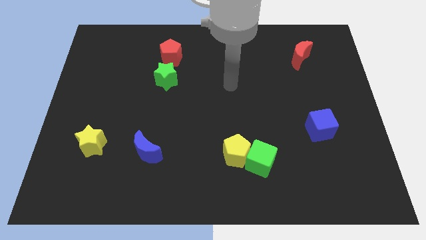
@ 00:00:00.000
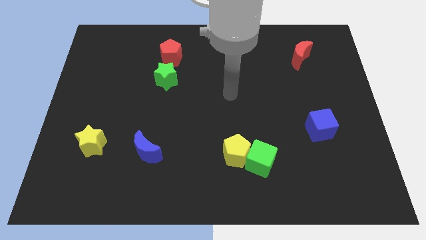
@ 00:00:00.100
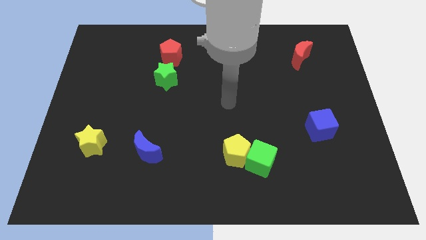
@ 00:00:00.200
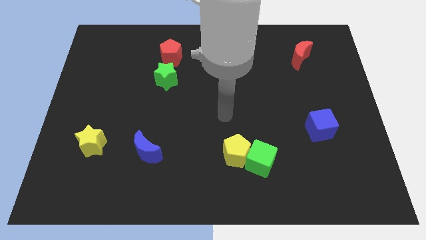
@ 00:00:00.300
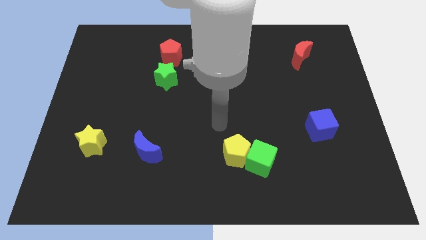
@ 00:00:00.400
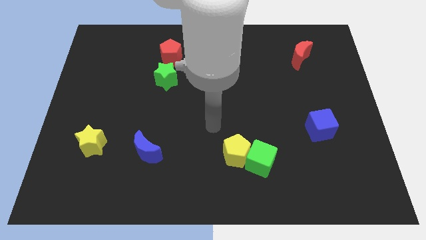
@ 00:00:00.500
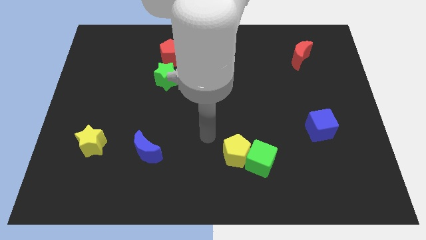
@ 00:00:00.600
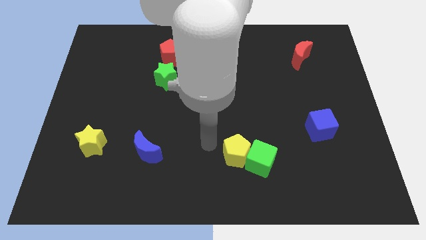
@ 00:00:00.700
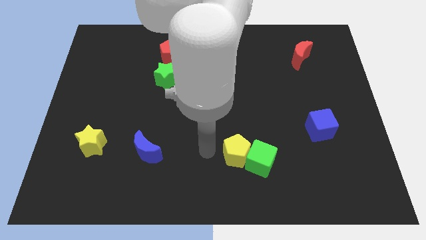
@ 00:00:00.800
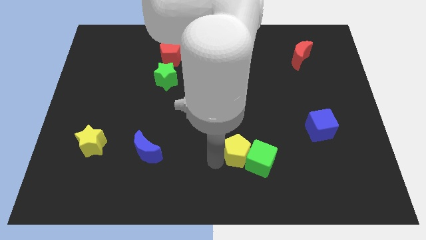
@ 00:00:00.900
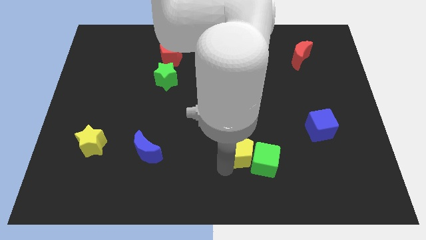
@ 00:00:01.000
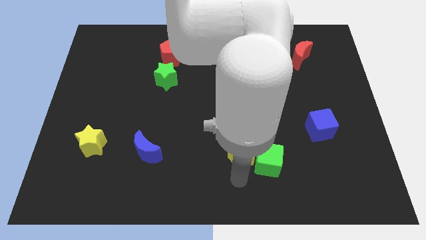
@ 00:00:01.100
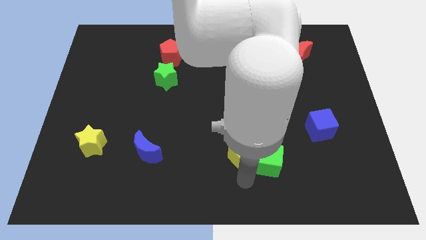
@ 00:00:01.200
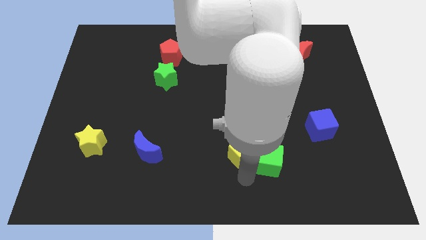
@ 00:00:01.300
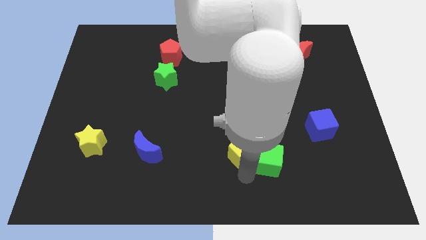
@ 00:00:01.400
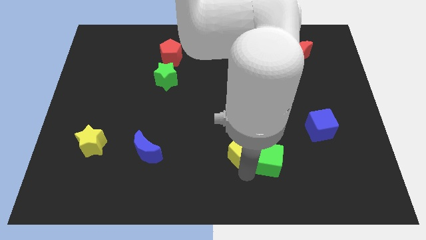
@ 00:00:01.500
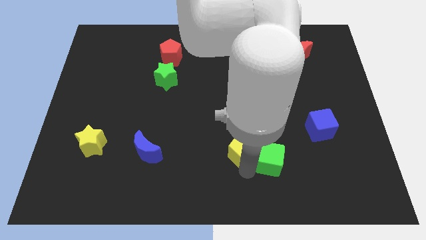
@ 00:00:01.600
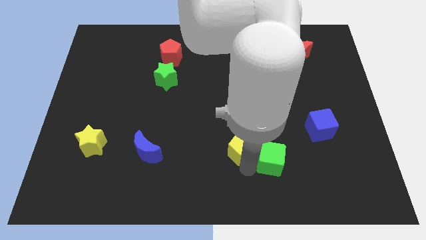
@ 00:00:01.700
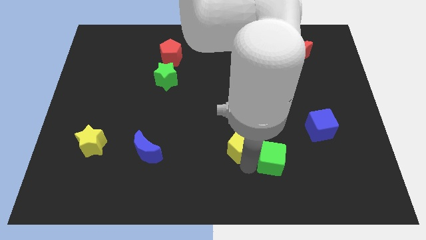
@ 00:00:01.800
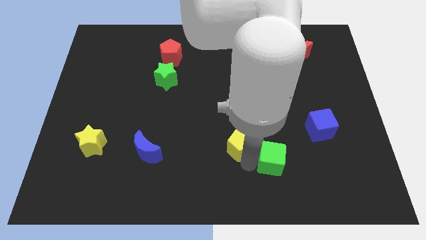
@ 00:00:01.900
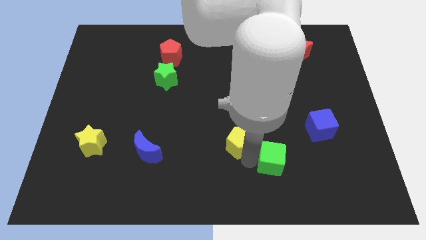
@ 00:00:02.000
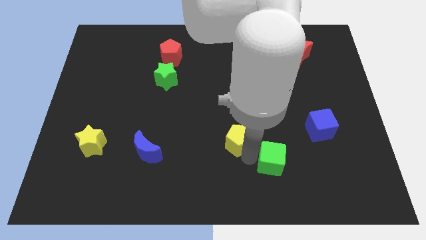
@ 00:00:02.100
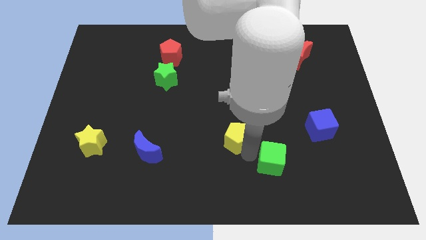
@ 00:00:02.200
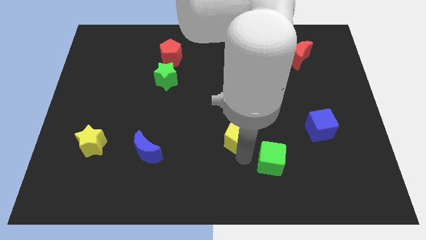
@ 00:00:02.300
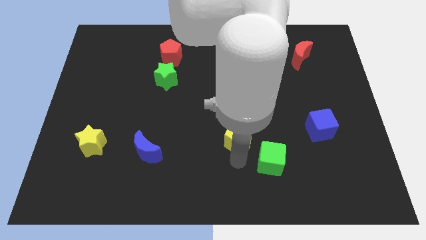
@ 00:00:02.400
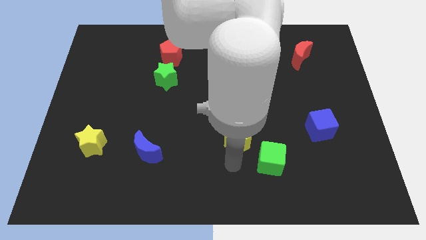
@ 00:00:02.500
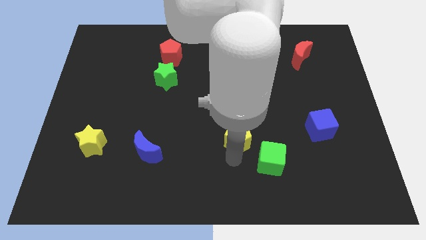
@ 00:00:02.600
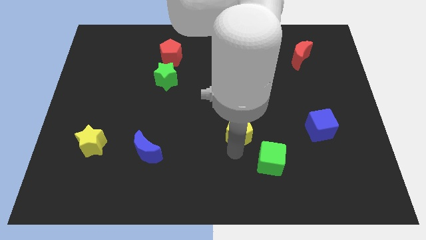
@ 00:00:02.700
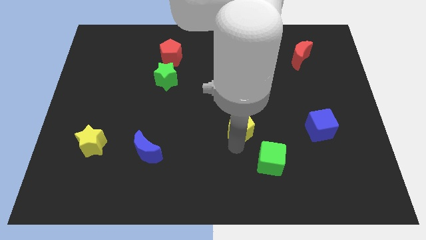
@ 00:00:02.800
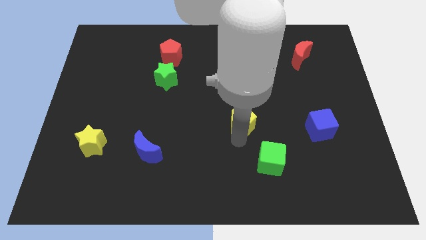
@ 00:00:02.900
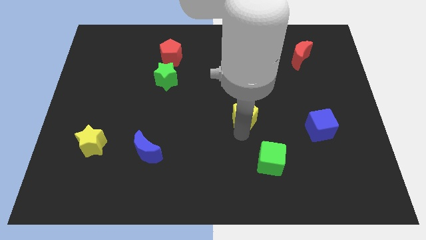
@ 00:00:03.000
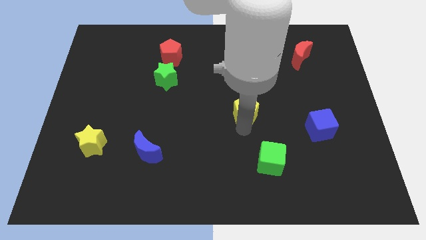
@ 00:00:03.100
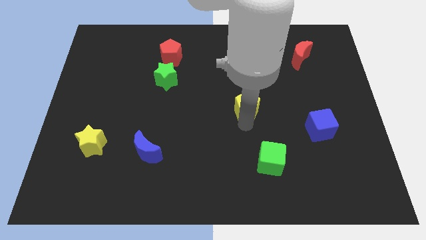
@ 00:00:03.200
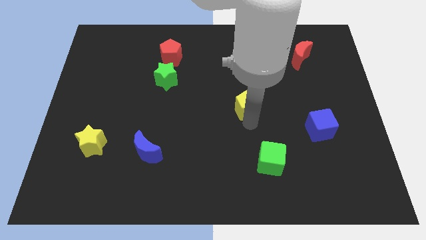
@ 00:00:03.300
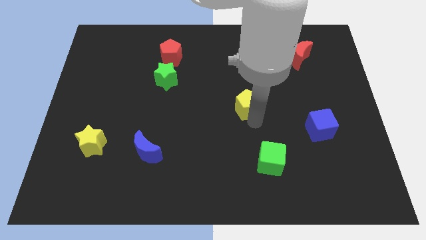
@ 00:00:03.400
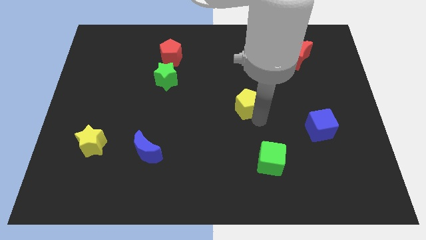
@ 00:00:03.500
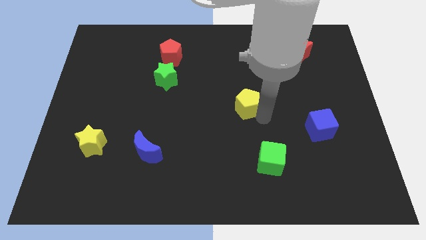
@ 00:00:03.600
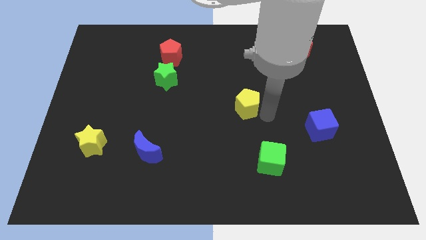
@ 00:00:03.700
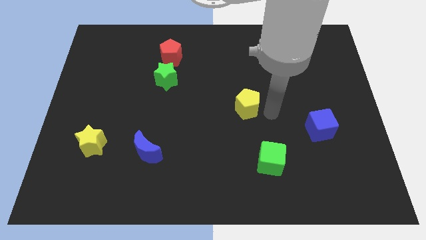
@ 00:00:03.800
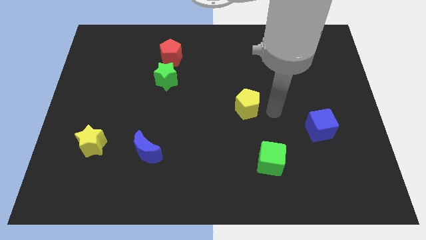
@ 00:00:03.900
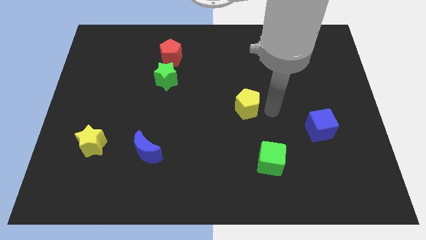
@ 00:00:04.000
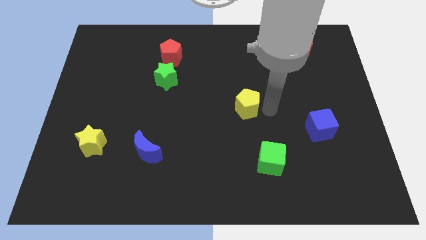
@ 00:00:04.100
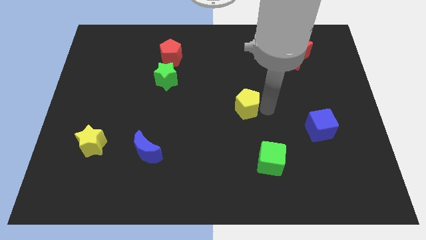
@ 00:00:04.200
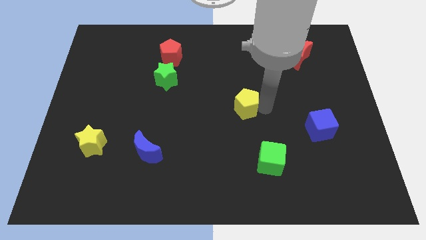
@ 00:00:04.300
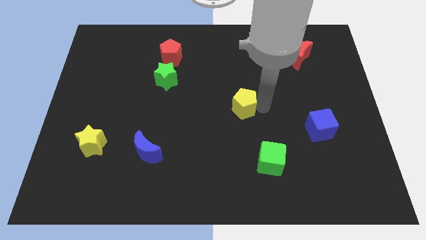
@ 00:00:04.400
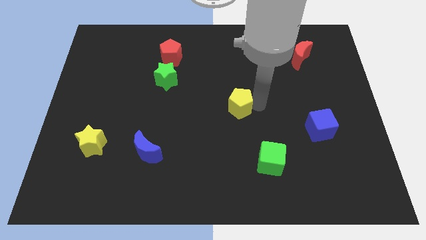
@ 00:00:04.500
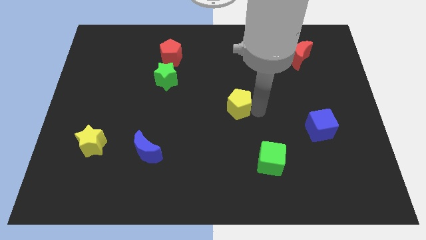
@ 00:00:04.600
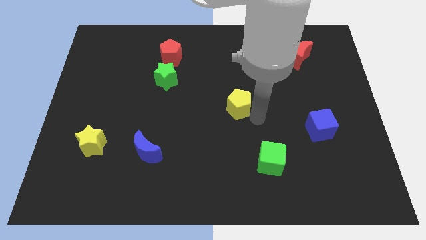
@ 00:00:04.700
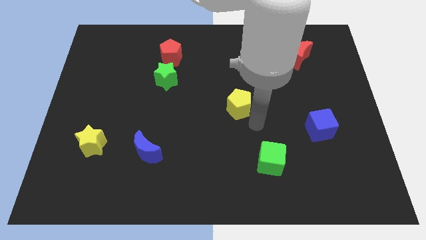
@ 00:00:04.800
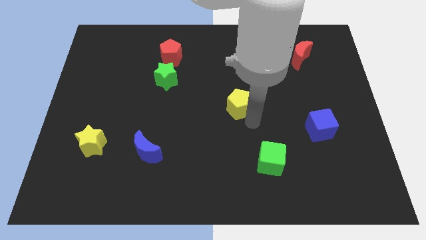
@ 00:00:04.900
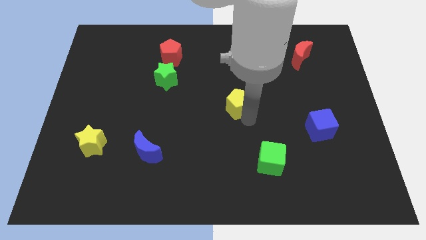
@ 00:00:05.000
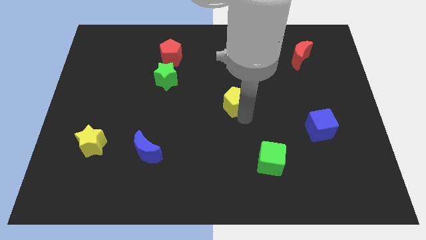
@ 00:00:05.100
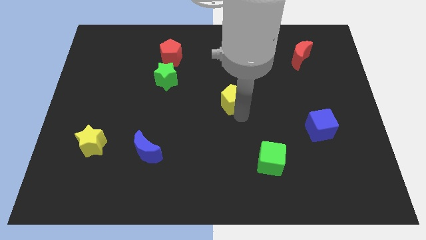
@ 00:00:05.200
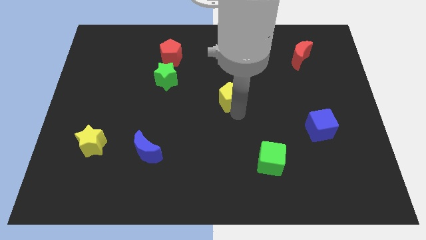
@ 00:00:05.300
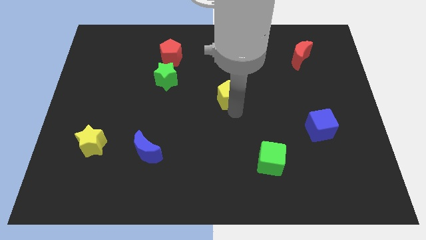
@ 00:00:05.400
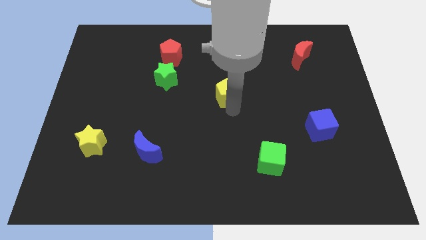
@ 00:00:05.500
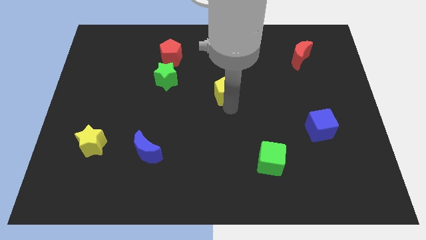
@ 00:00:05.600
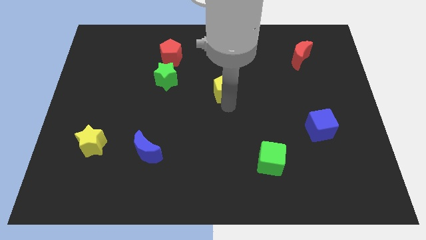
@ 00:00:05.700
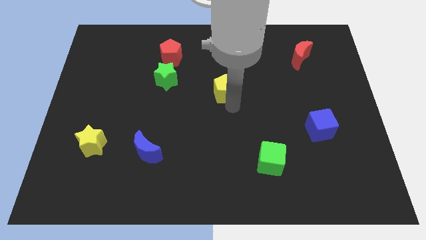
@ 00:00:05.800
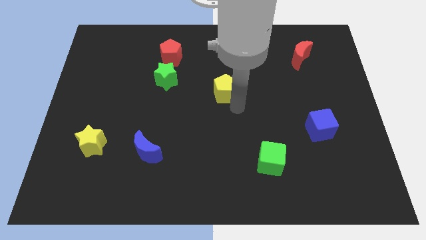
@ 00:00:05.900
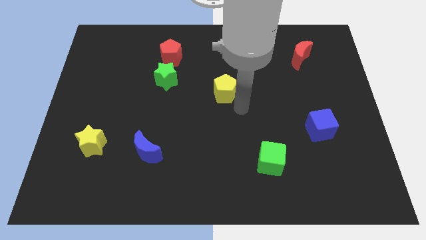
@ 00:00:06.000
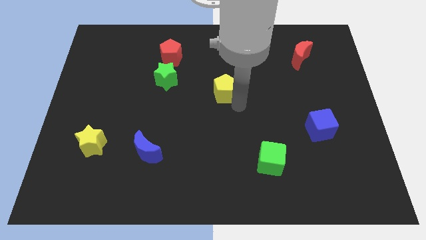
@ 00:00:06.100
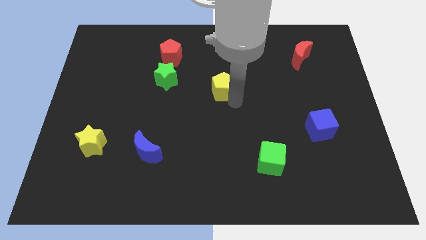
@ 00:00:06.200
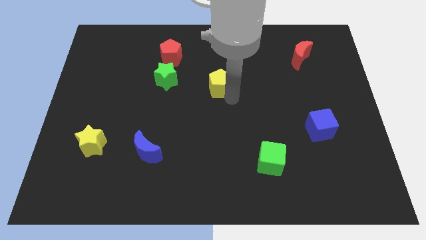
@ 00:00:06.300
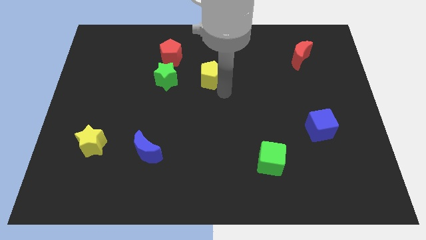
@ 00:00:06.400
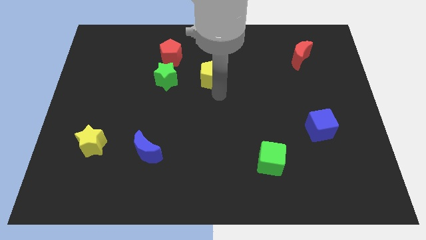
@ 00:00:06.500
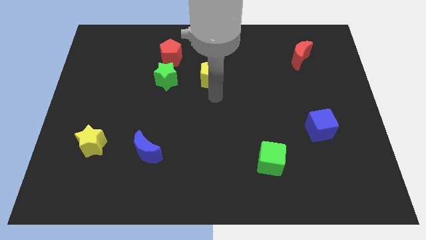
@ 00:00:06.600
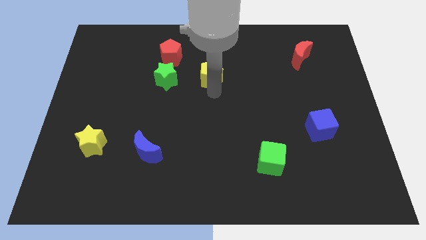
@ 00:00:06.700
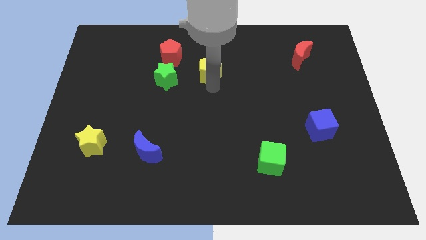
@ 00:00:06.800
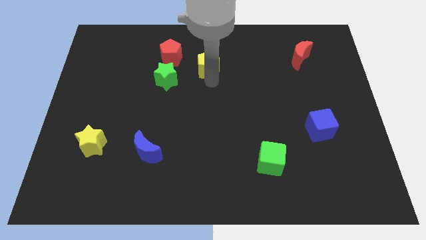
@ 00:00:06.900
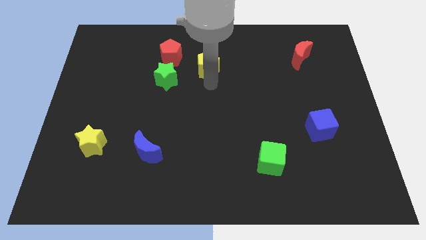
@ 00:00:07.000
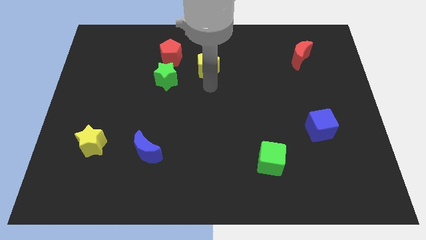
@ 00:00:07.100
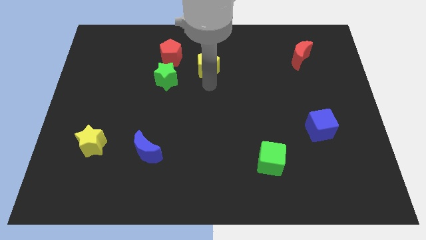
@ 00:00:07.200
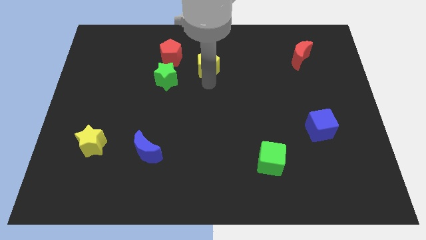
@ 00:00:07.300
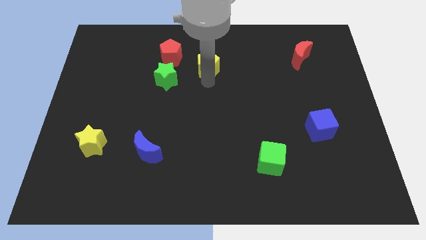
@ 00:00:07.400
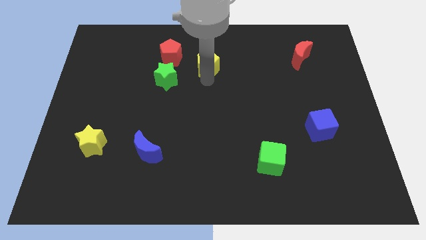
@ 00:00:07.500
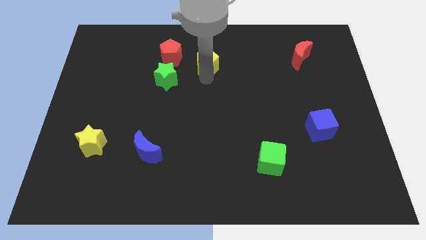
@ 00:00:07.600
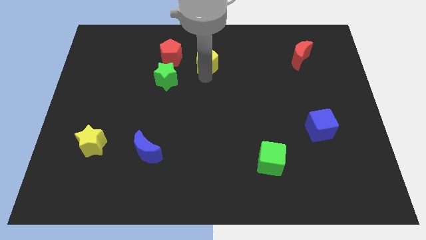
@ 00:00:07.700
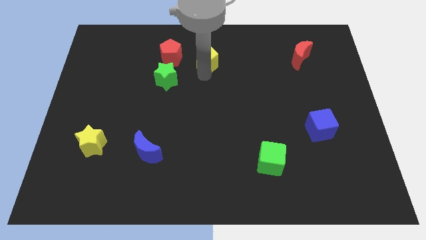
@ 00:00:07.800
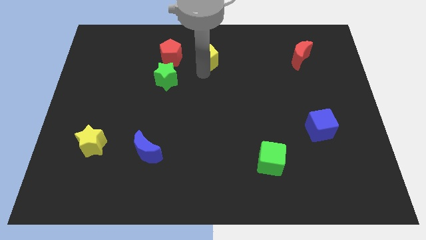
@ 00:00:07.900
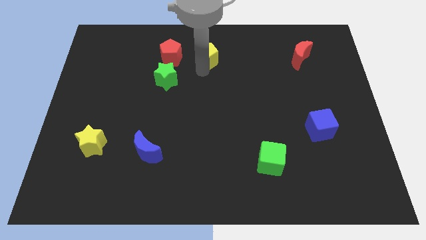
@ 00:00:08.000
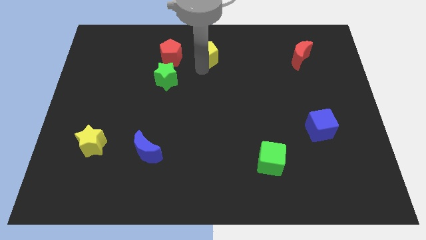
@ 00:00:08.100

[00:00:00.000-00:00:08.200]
slide the yellow pentagon to the top
